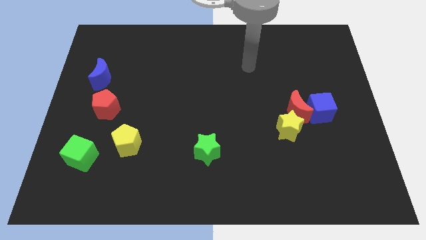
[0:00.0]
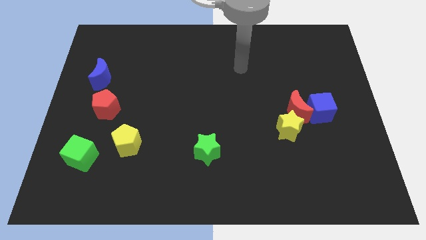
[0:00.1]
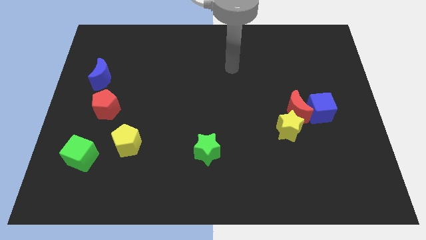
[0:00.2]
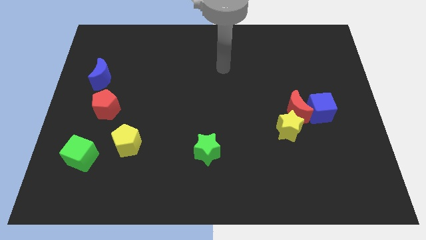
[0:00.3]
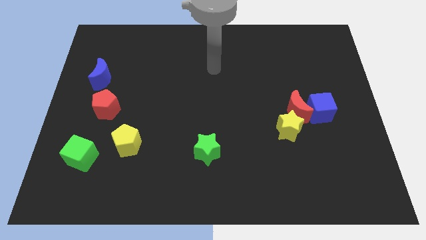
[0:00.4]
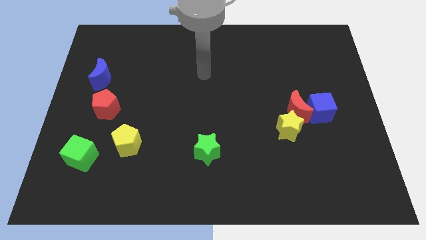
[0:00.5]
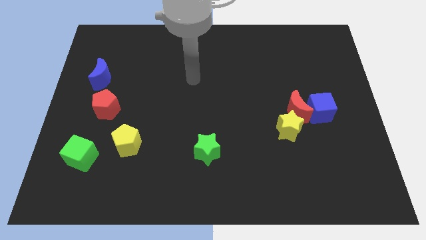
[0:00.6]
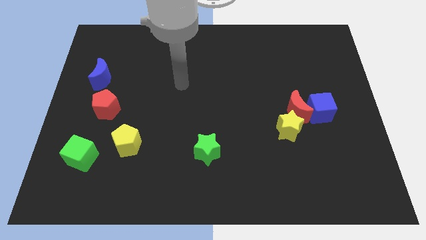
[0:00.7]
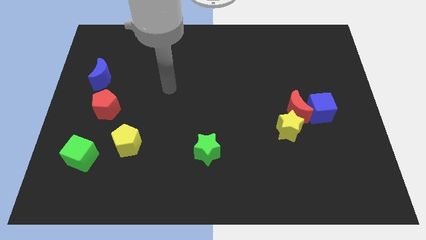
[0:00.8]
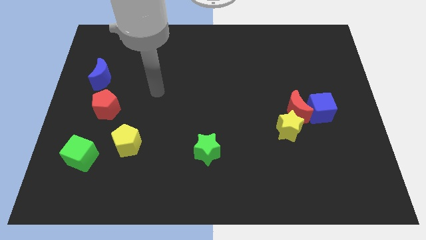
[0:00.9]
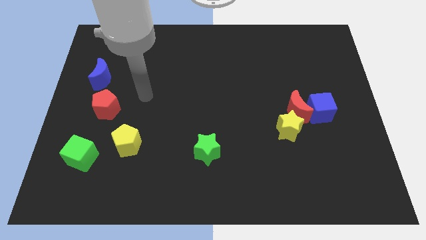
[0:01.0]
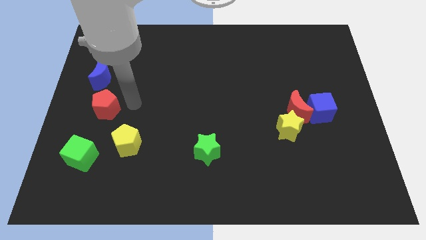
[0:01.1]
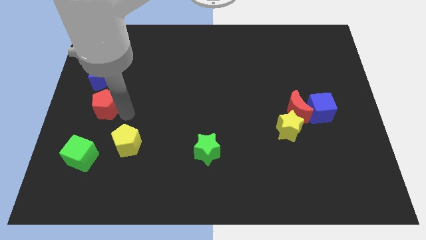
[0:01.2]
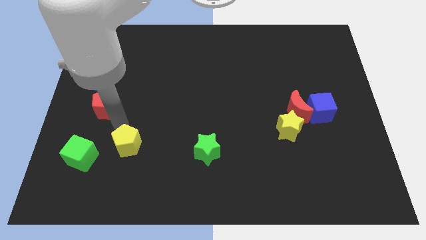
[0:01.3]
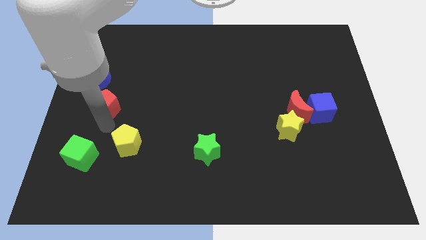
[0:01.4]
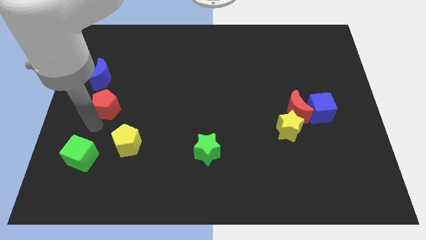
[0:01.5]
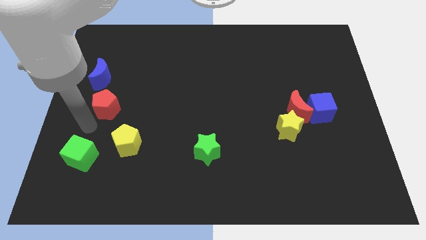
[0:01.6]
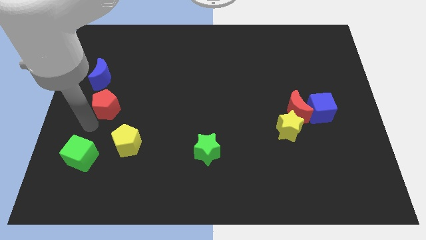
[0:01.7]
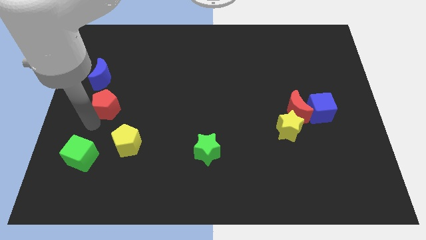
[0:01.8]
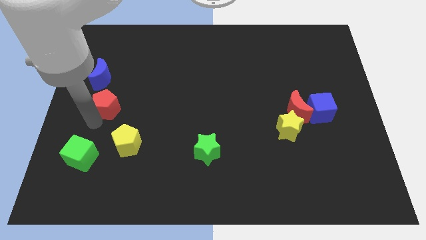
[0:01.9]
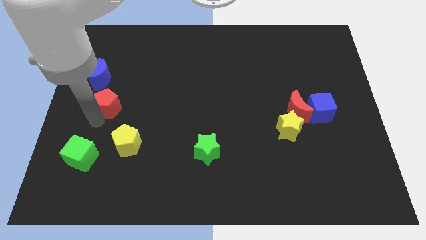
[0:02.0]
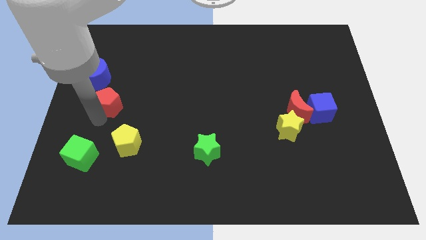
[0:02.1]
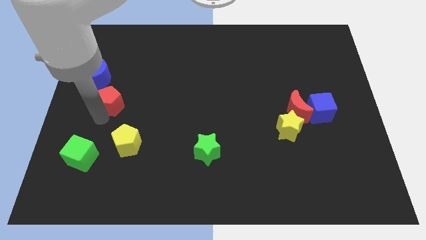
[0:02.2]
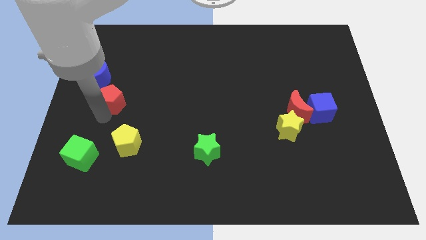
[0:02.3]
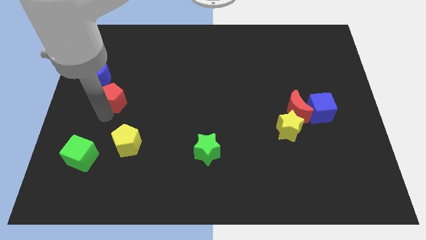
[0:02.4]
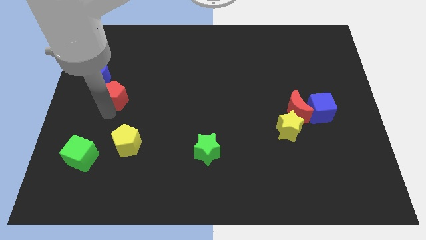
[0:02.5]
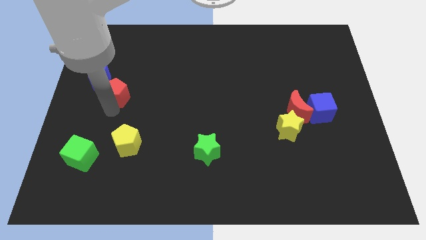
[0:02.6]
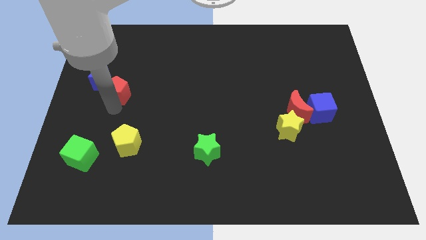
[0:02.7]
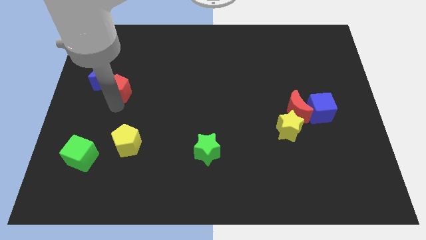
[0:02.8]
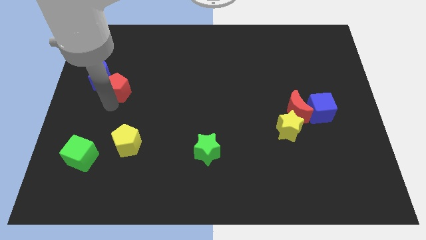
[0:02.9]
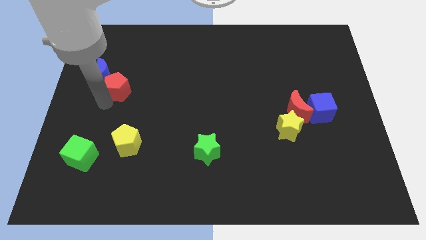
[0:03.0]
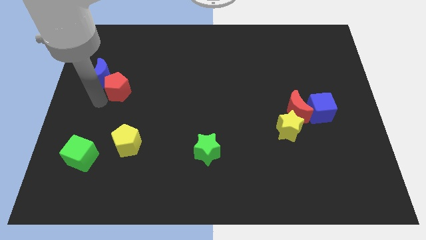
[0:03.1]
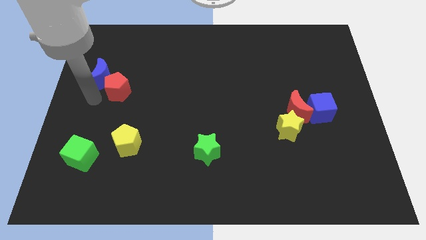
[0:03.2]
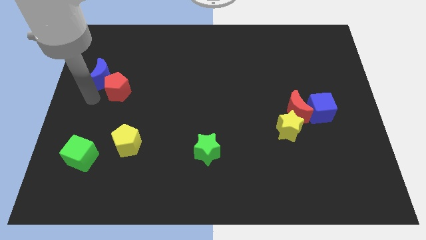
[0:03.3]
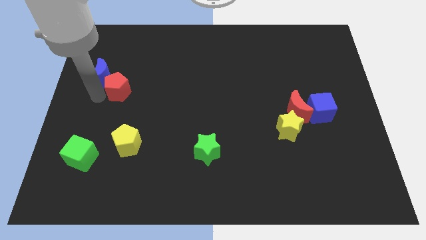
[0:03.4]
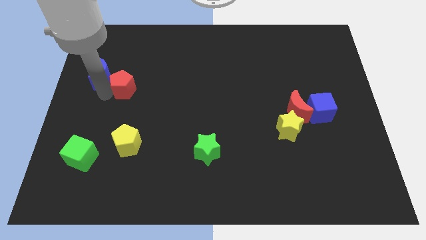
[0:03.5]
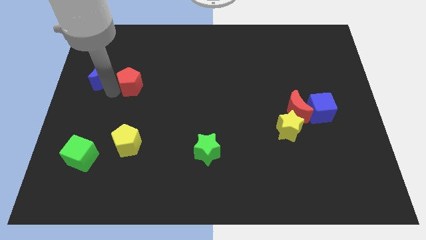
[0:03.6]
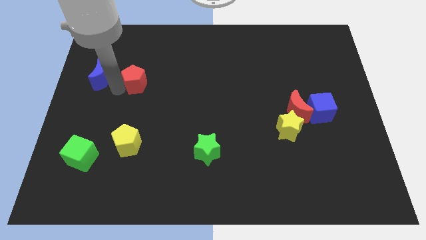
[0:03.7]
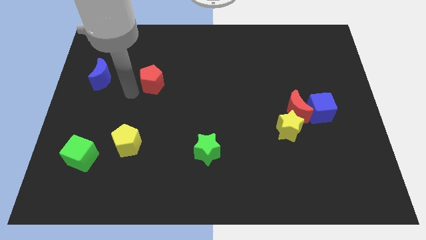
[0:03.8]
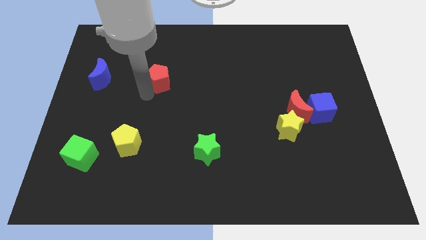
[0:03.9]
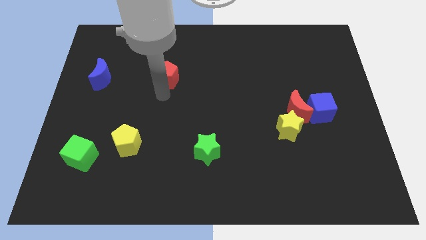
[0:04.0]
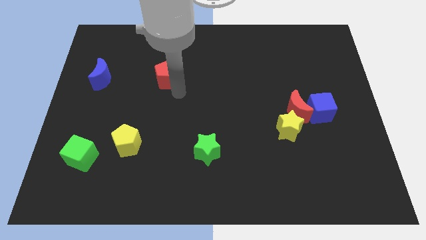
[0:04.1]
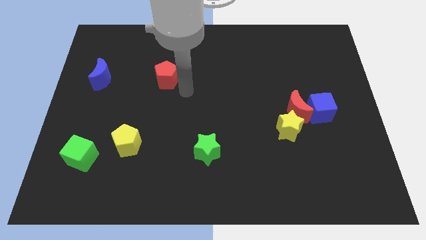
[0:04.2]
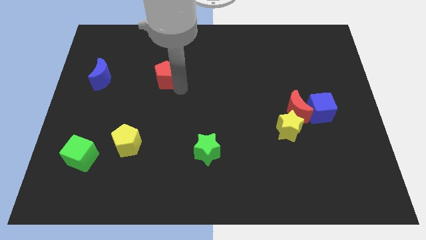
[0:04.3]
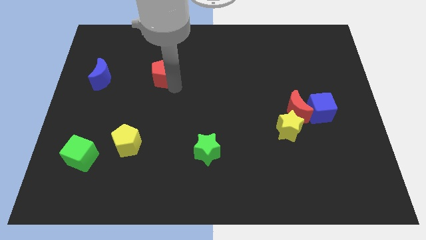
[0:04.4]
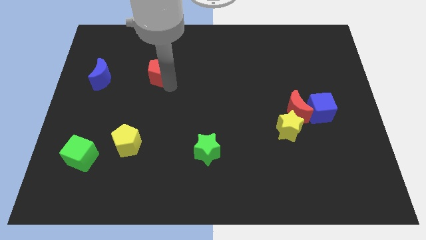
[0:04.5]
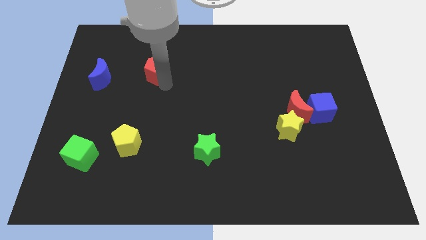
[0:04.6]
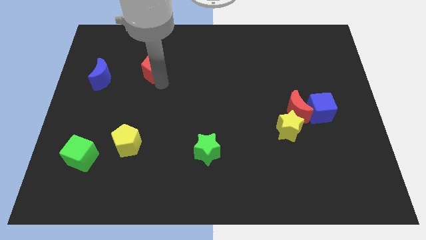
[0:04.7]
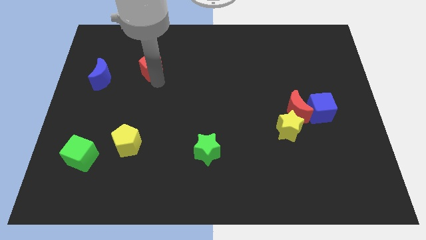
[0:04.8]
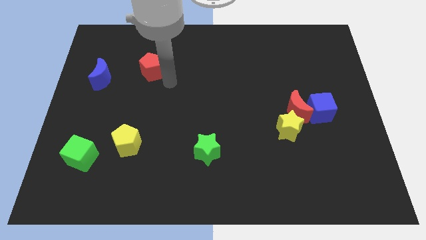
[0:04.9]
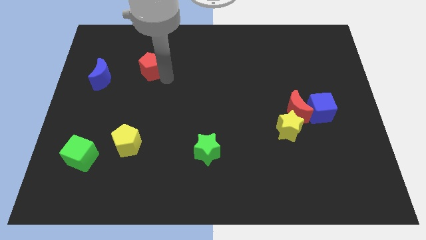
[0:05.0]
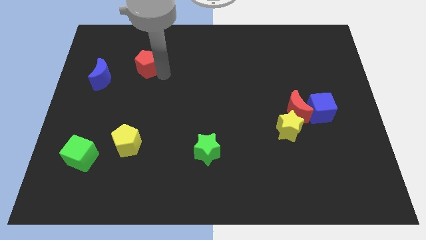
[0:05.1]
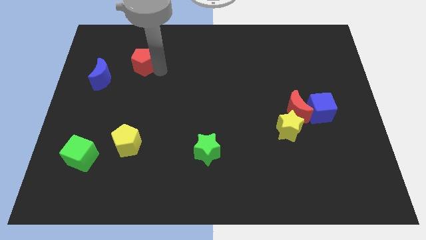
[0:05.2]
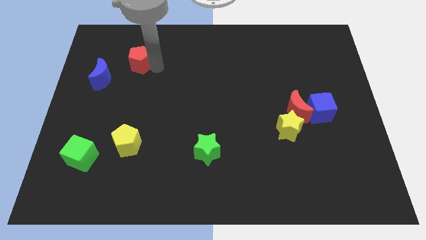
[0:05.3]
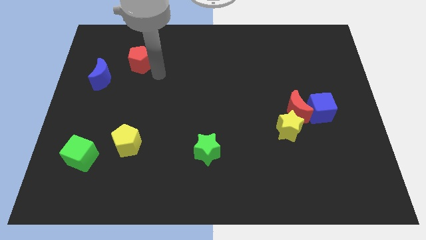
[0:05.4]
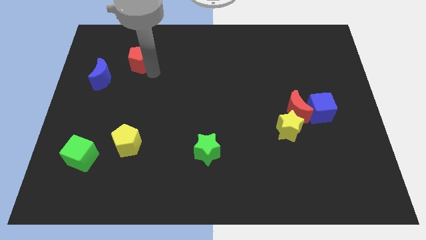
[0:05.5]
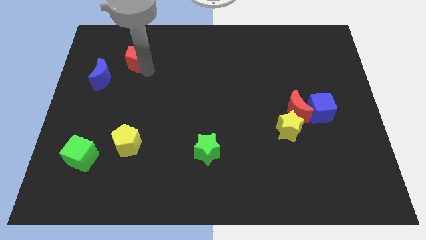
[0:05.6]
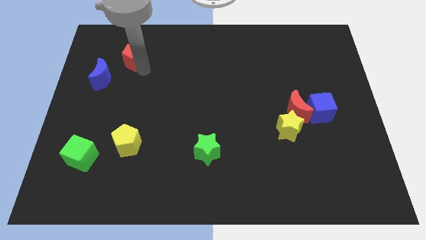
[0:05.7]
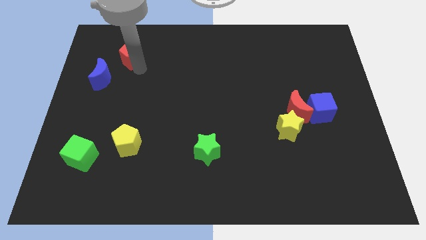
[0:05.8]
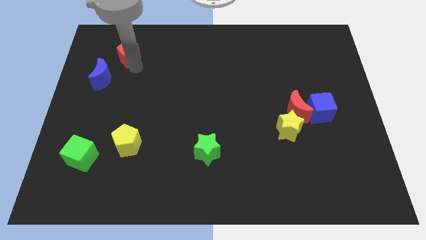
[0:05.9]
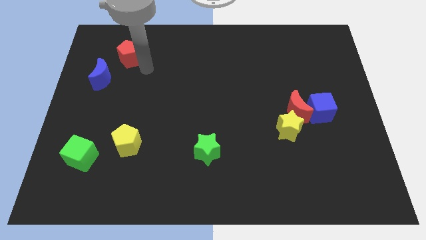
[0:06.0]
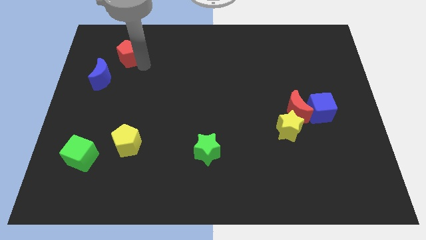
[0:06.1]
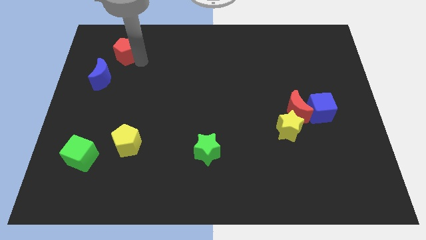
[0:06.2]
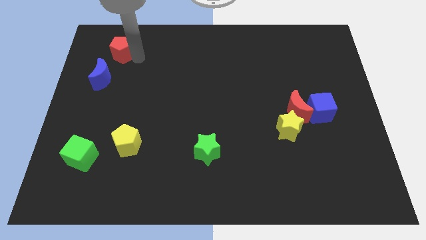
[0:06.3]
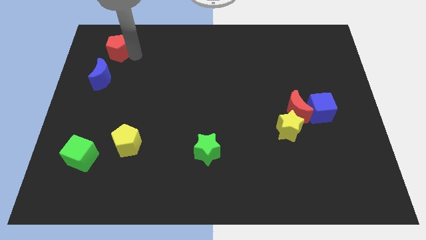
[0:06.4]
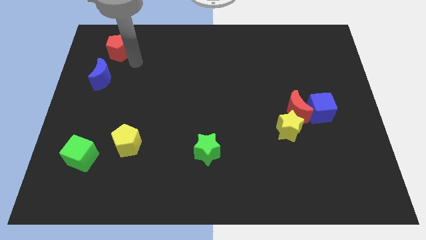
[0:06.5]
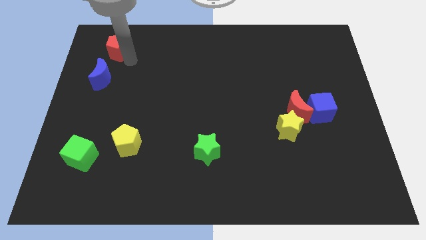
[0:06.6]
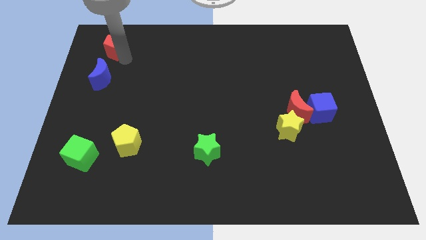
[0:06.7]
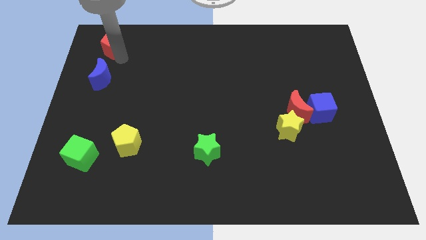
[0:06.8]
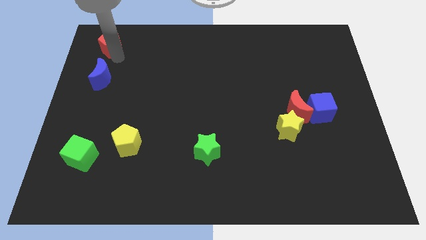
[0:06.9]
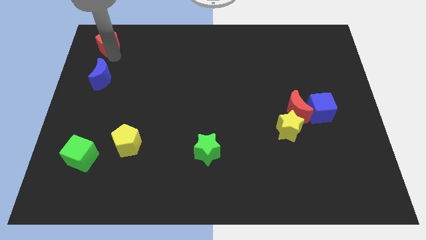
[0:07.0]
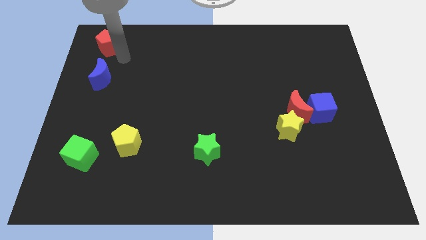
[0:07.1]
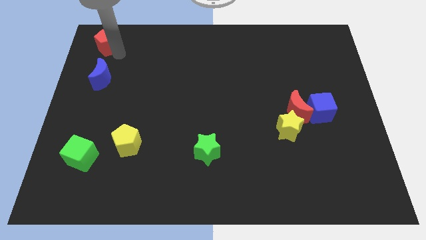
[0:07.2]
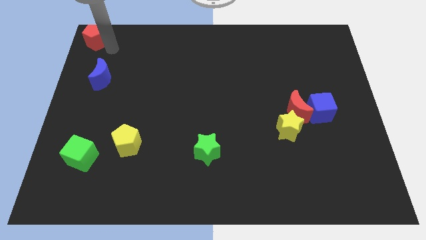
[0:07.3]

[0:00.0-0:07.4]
move the red pentagon to the top left of the board
